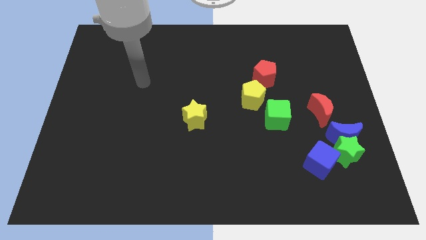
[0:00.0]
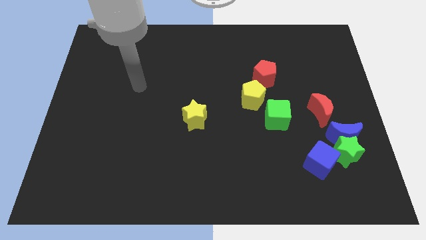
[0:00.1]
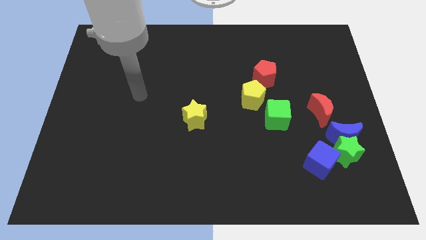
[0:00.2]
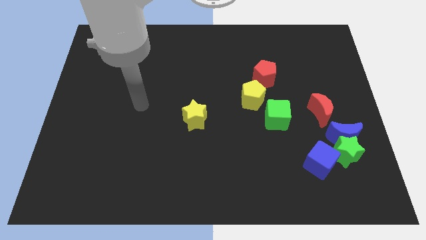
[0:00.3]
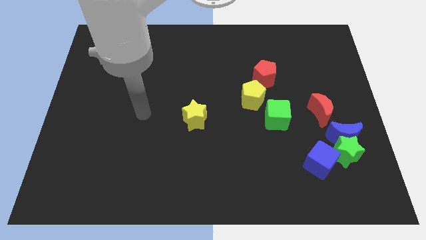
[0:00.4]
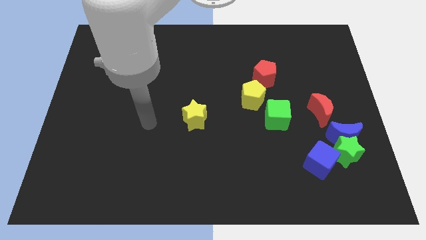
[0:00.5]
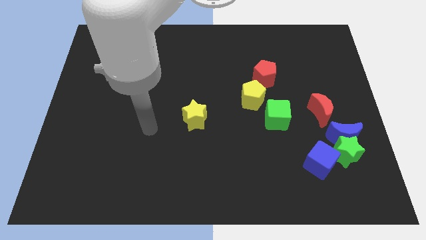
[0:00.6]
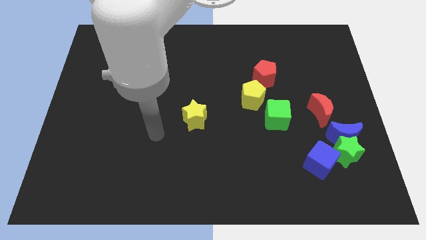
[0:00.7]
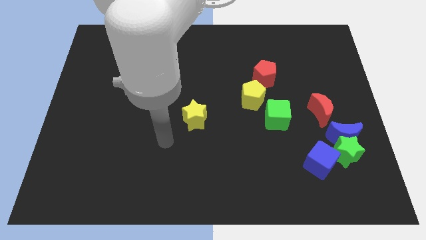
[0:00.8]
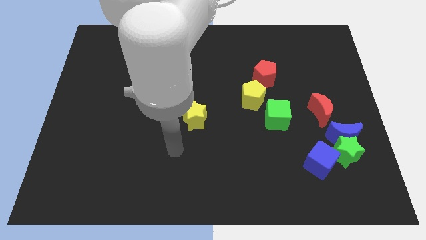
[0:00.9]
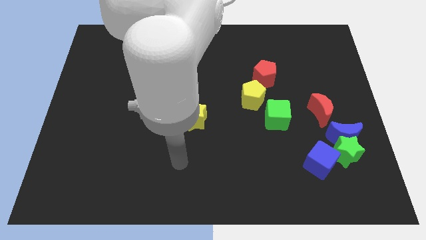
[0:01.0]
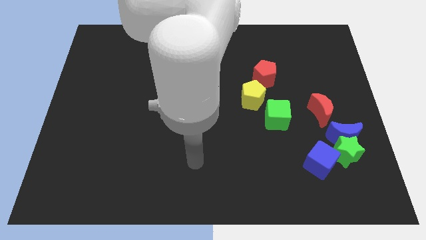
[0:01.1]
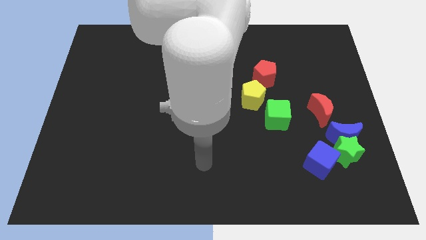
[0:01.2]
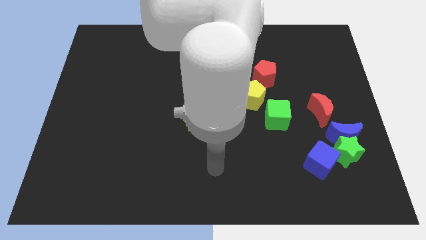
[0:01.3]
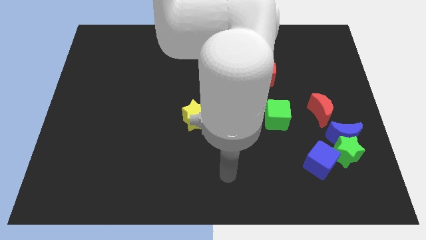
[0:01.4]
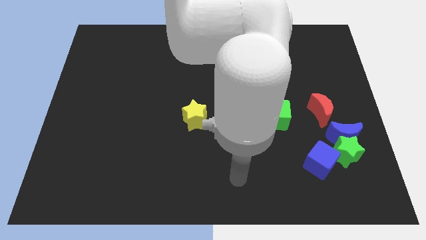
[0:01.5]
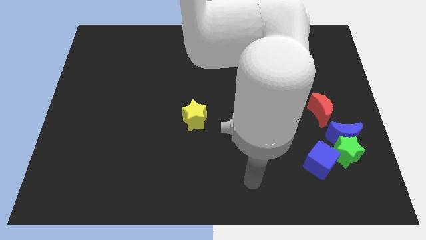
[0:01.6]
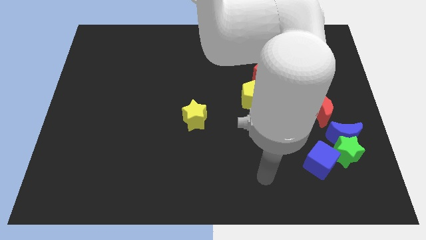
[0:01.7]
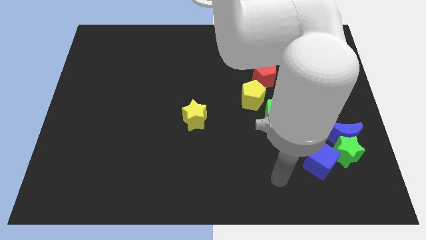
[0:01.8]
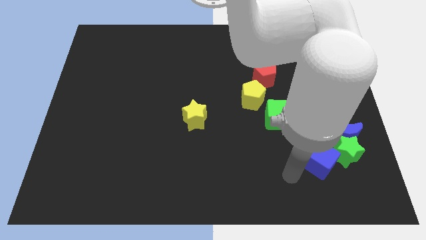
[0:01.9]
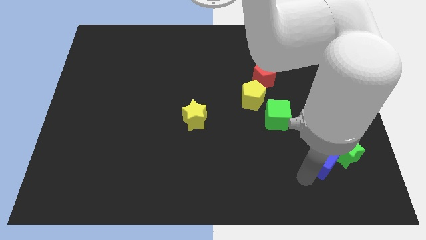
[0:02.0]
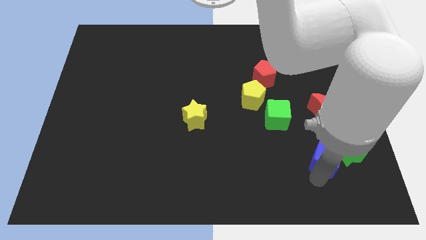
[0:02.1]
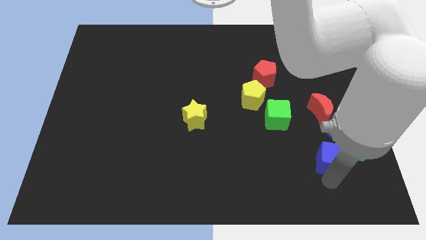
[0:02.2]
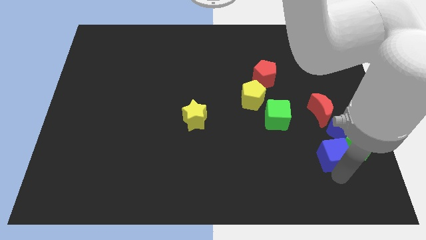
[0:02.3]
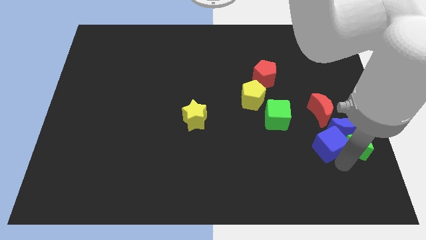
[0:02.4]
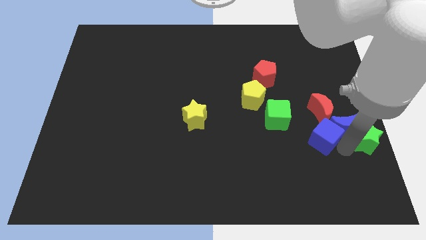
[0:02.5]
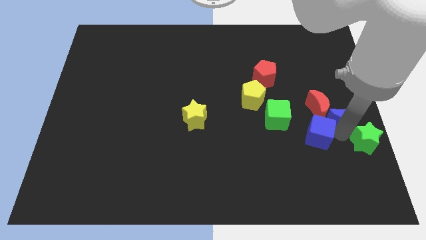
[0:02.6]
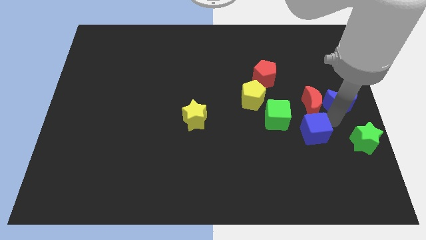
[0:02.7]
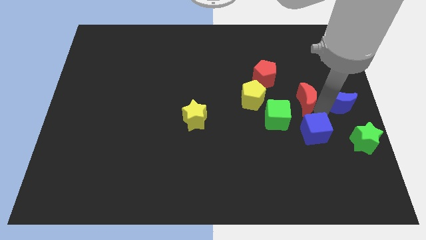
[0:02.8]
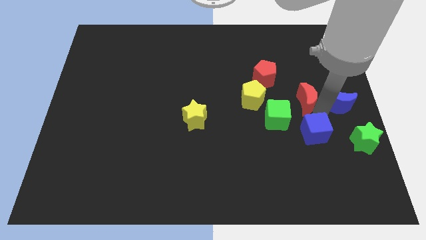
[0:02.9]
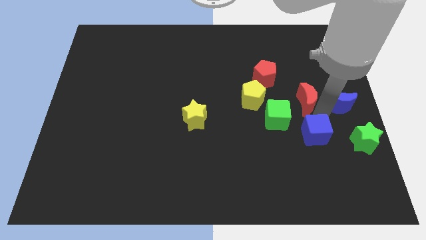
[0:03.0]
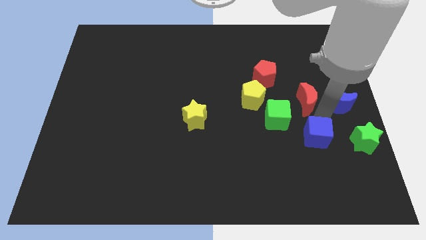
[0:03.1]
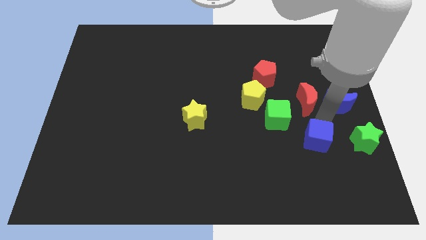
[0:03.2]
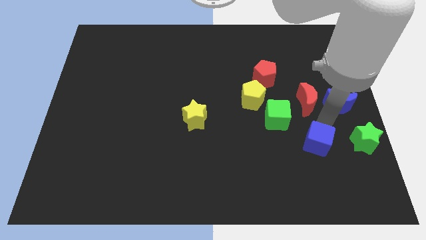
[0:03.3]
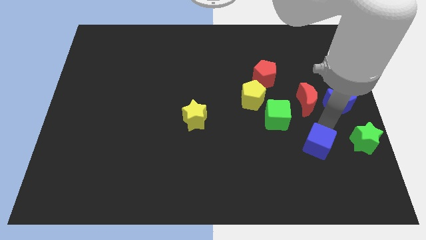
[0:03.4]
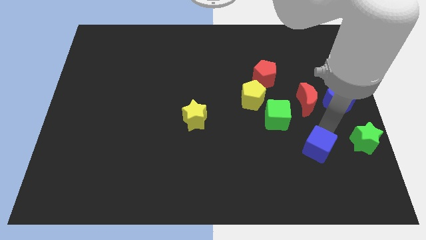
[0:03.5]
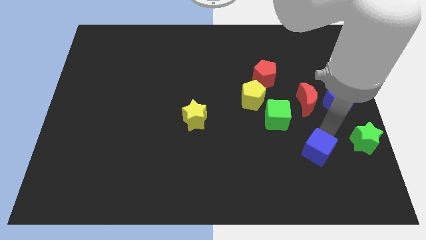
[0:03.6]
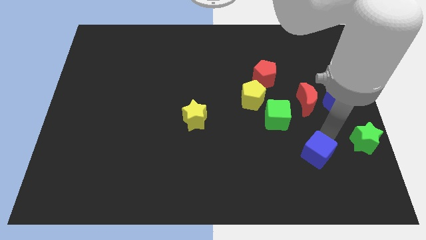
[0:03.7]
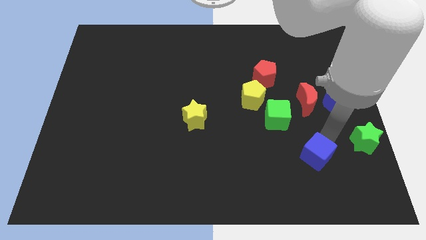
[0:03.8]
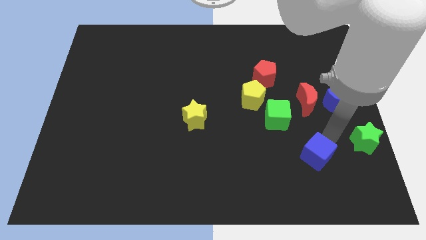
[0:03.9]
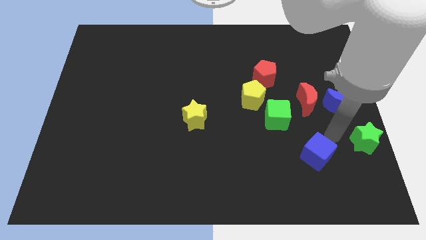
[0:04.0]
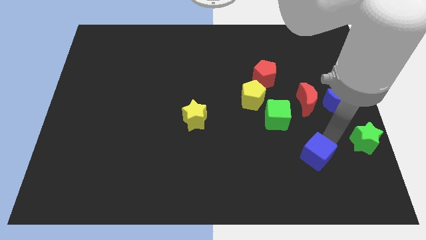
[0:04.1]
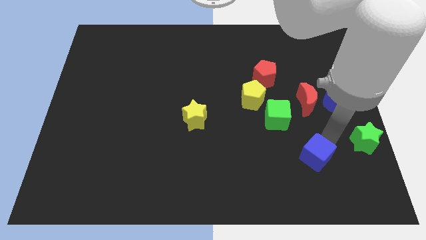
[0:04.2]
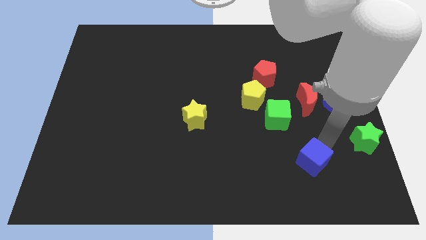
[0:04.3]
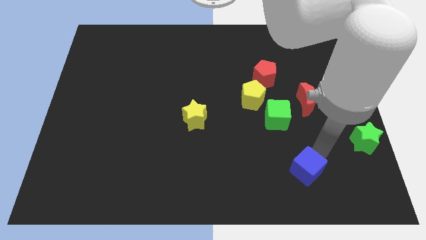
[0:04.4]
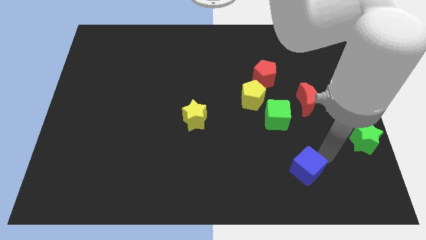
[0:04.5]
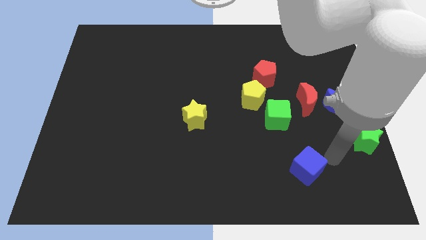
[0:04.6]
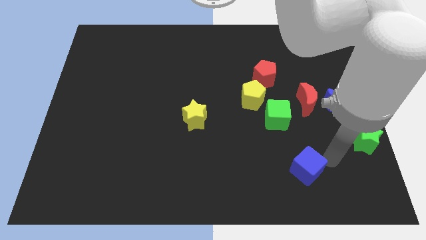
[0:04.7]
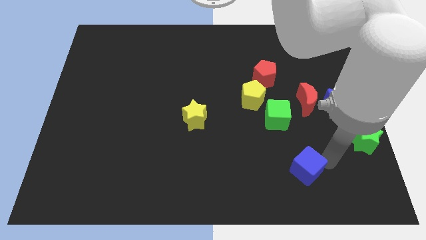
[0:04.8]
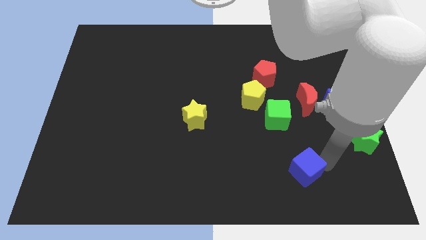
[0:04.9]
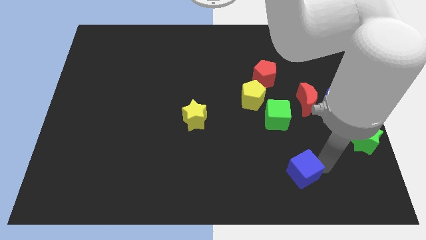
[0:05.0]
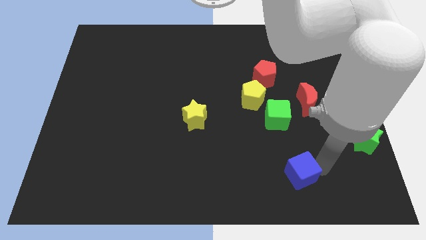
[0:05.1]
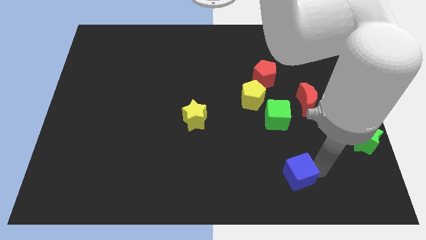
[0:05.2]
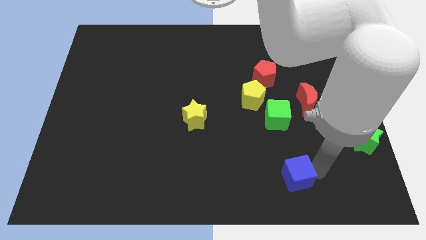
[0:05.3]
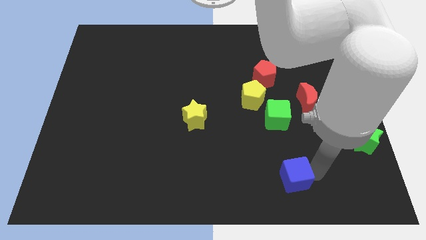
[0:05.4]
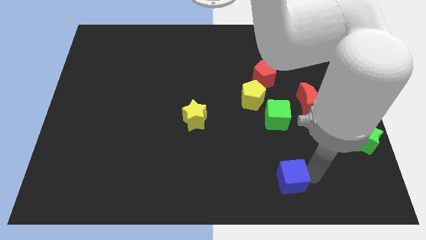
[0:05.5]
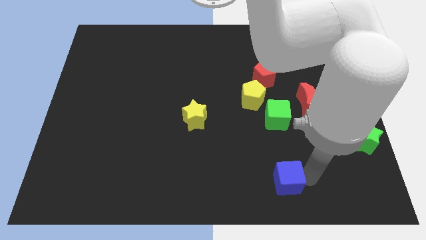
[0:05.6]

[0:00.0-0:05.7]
slightly slide the blue cube left

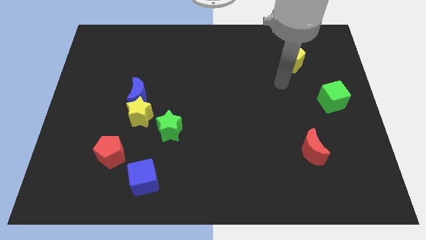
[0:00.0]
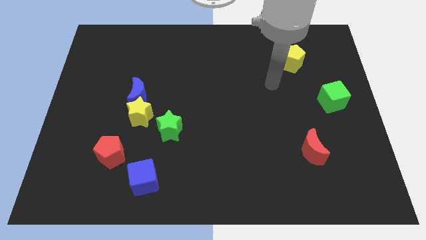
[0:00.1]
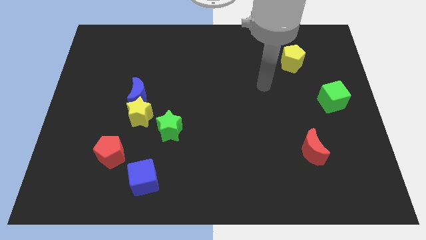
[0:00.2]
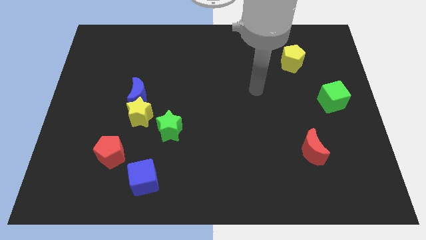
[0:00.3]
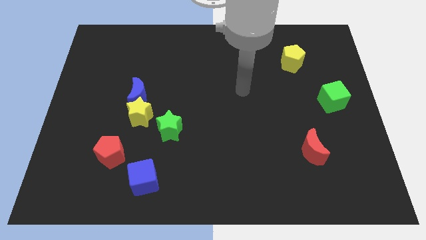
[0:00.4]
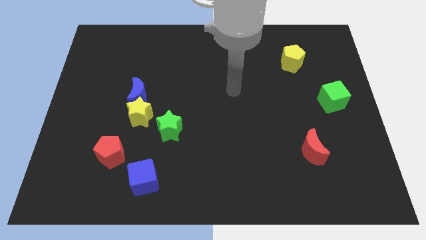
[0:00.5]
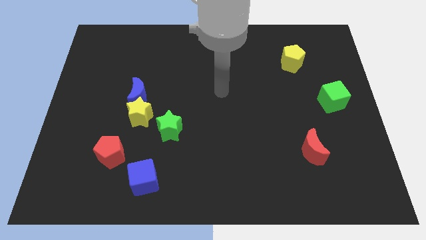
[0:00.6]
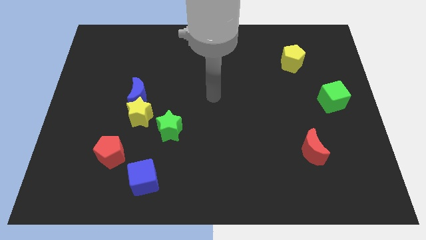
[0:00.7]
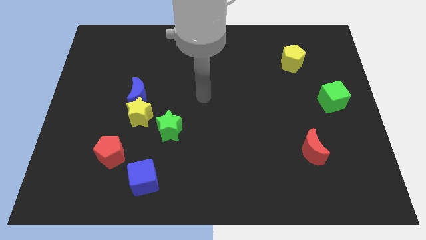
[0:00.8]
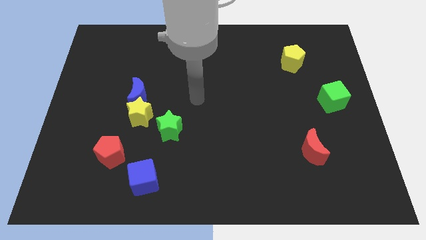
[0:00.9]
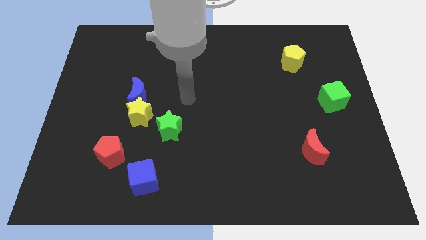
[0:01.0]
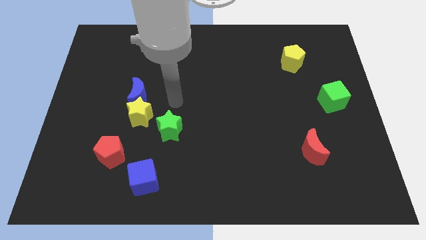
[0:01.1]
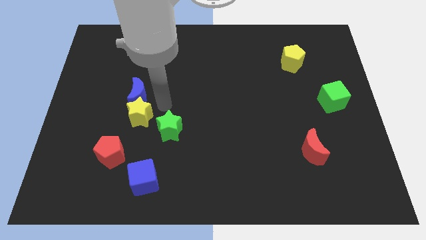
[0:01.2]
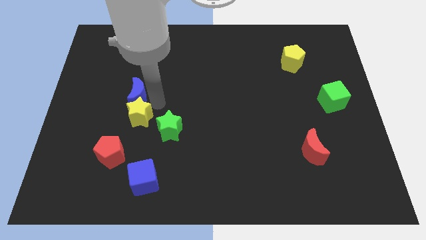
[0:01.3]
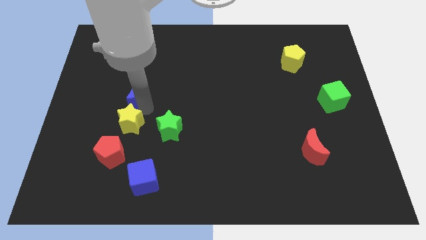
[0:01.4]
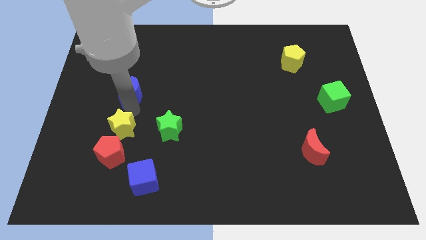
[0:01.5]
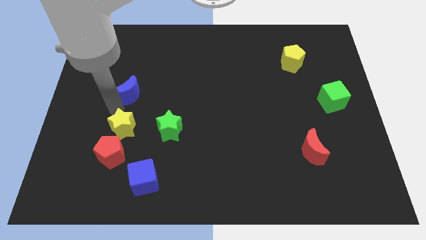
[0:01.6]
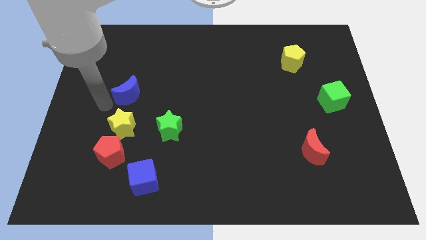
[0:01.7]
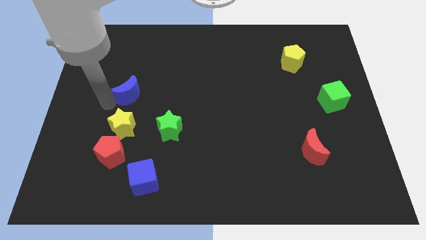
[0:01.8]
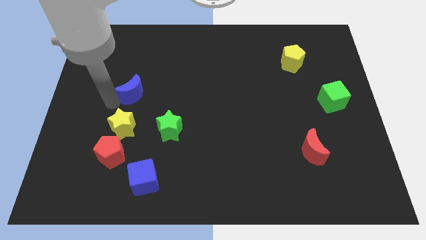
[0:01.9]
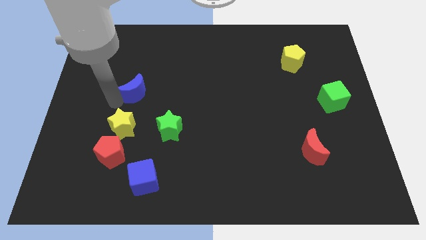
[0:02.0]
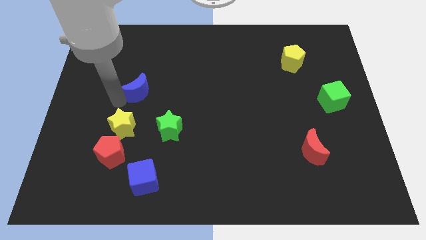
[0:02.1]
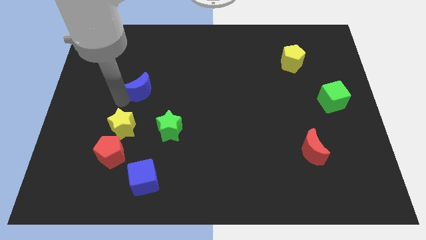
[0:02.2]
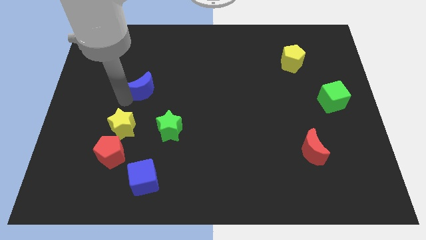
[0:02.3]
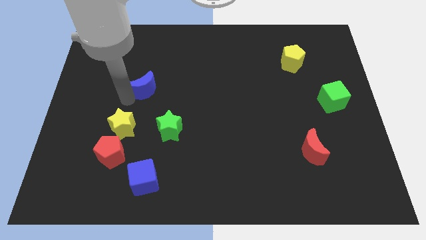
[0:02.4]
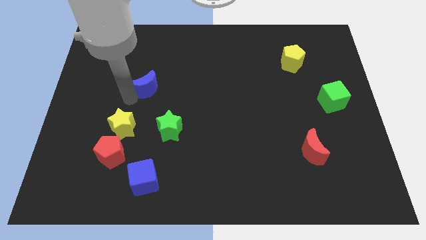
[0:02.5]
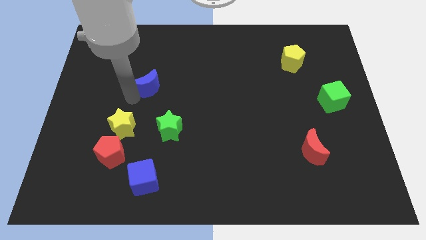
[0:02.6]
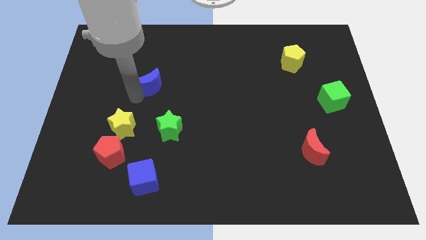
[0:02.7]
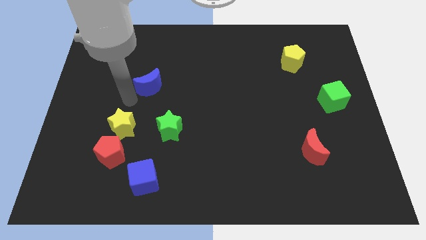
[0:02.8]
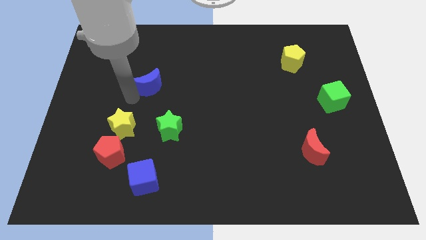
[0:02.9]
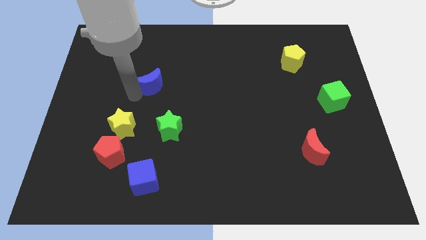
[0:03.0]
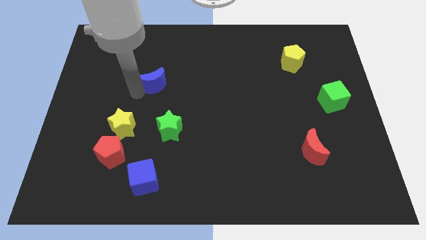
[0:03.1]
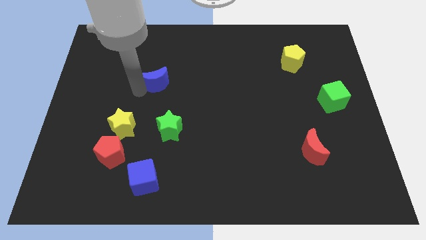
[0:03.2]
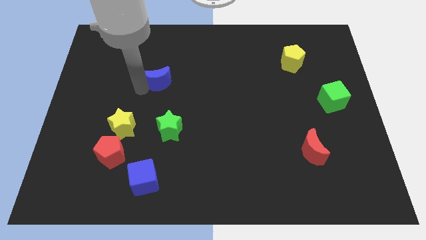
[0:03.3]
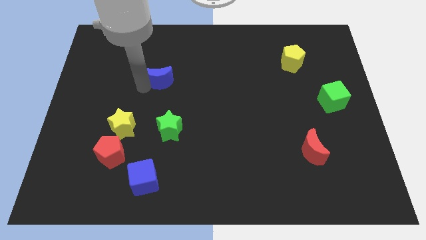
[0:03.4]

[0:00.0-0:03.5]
move the blue moon upwards and then to the right a little
